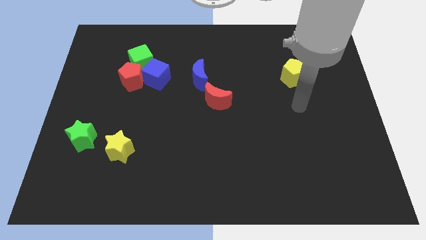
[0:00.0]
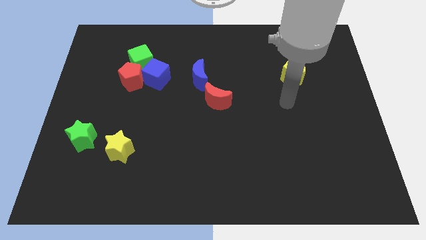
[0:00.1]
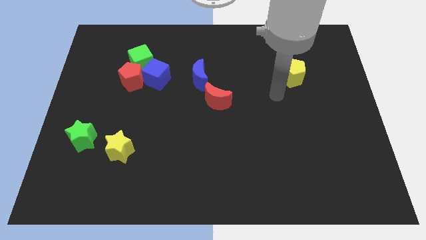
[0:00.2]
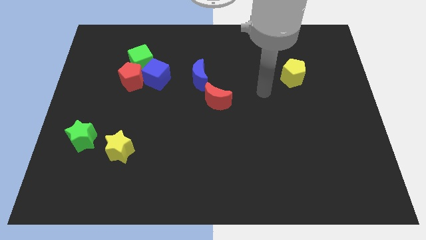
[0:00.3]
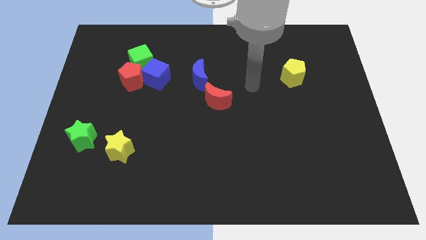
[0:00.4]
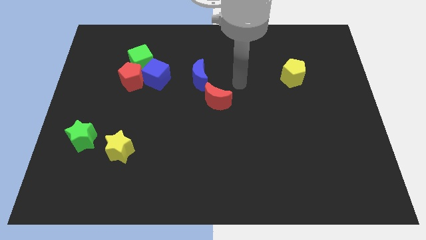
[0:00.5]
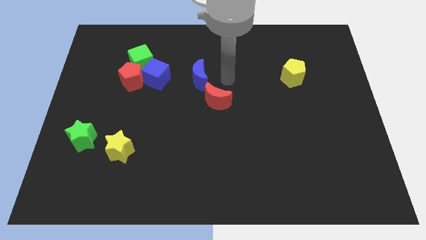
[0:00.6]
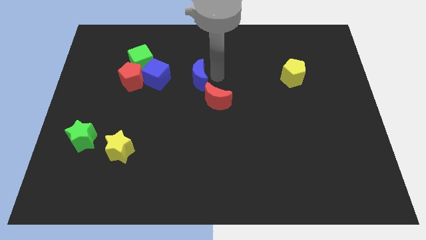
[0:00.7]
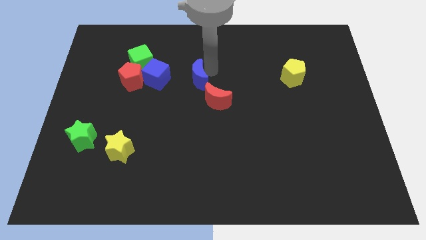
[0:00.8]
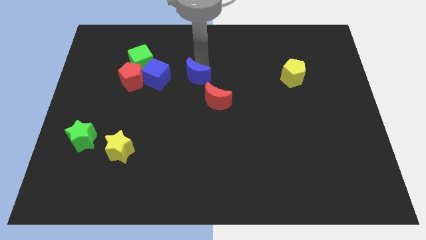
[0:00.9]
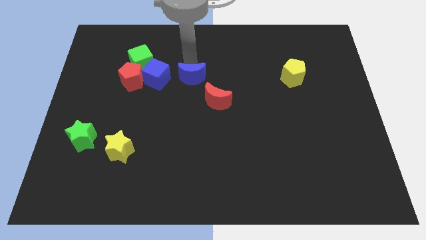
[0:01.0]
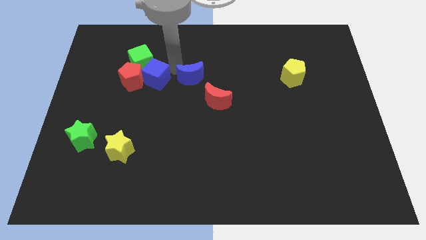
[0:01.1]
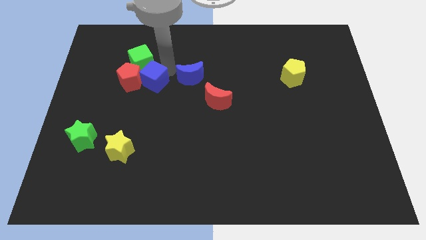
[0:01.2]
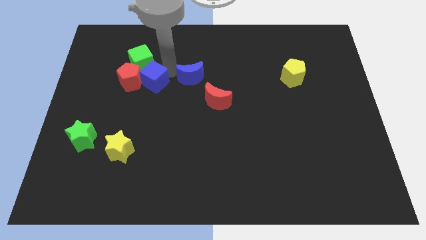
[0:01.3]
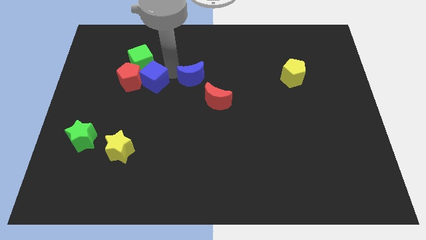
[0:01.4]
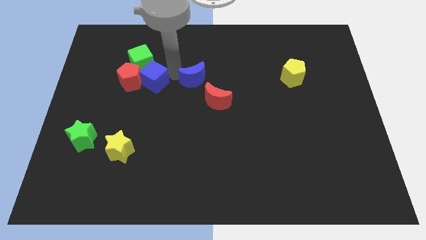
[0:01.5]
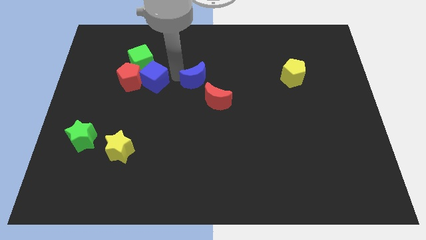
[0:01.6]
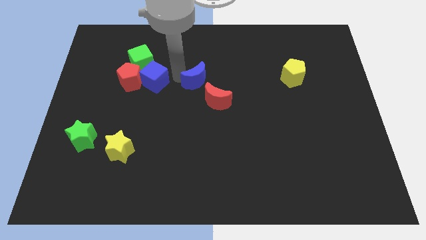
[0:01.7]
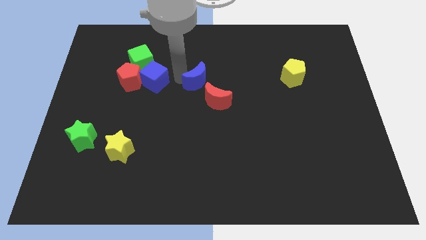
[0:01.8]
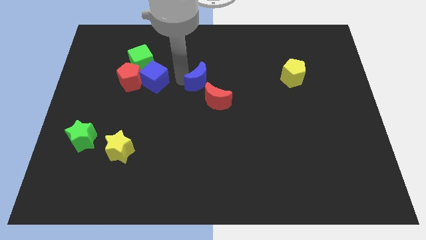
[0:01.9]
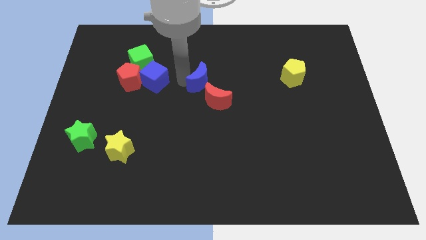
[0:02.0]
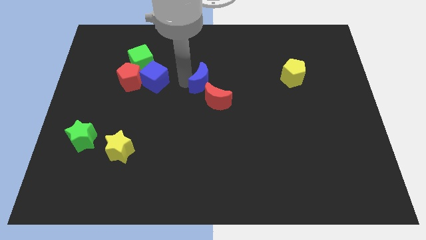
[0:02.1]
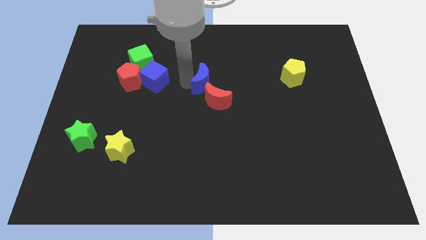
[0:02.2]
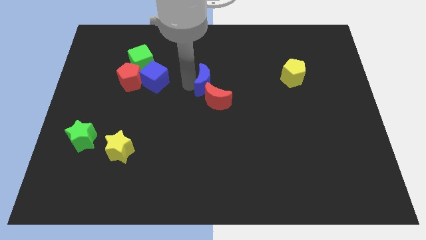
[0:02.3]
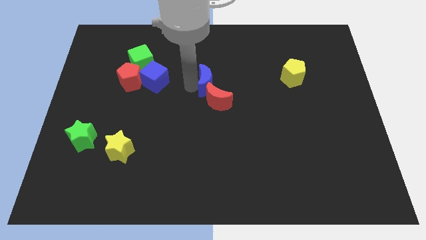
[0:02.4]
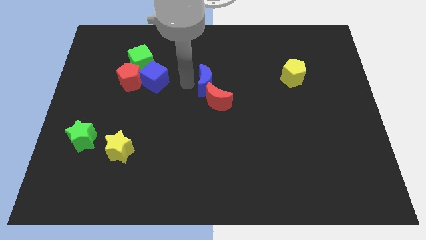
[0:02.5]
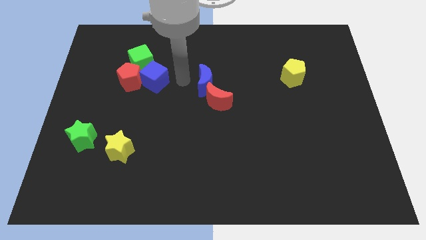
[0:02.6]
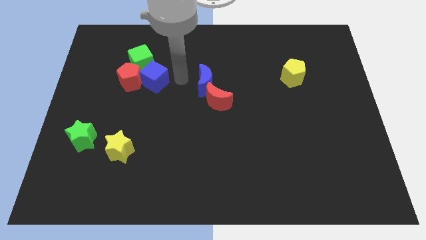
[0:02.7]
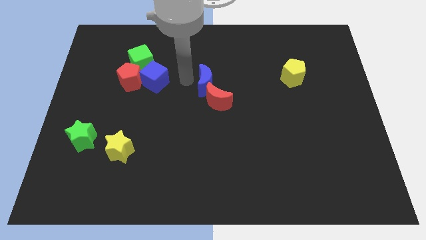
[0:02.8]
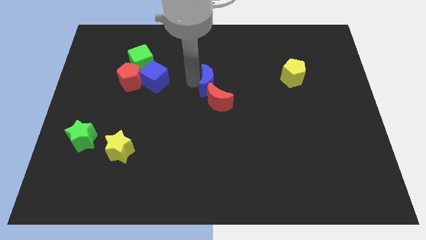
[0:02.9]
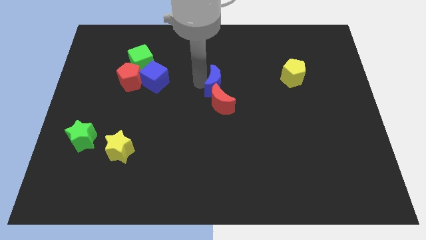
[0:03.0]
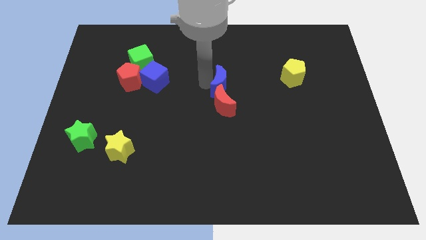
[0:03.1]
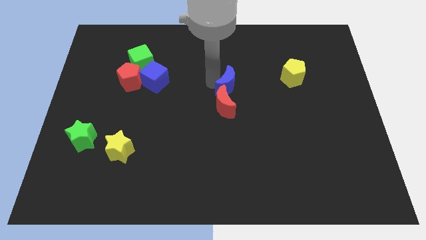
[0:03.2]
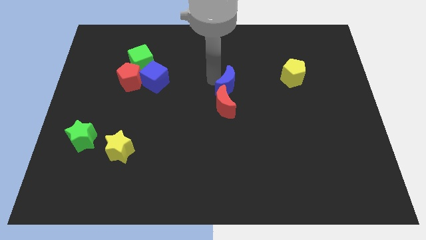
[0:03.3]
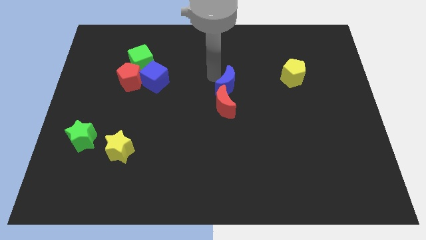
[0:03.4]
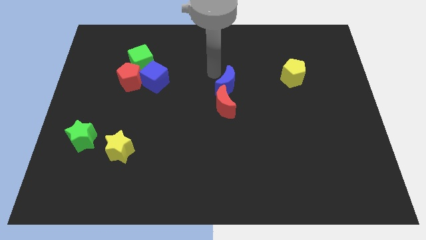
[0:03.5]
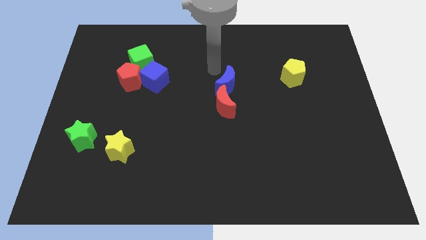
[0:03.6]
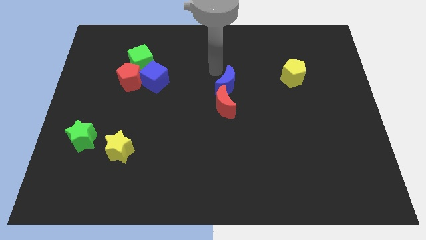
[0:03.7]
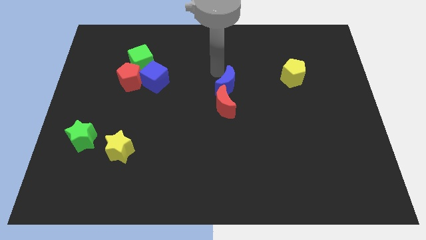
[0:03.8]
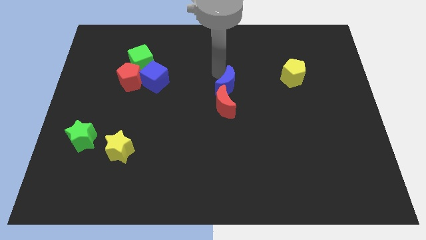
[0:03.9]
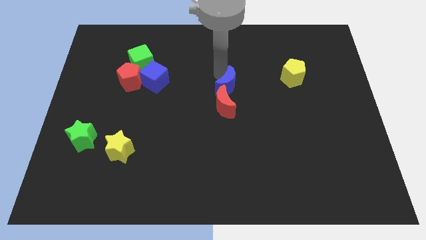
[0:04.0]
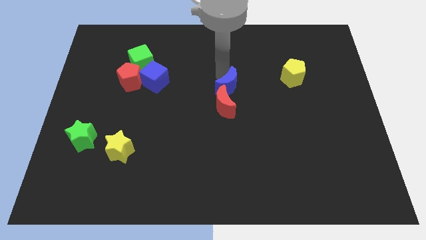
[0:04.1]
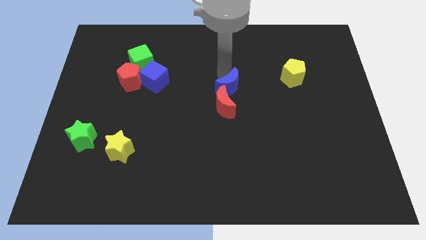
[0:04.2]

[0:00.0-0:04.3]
push the blue moon a little bit downwards and to the right

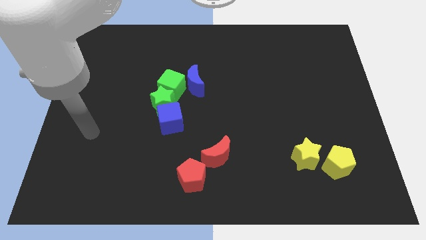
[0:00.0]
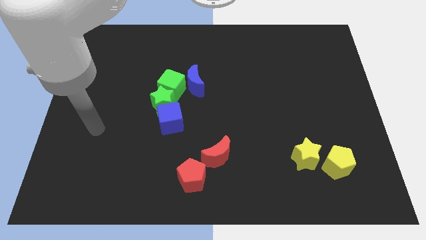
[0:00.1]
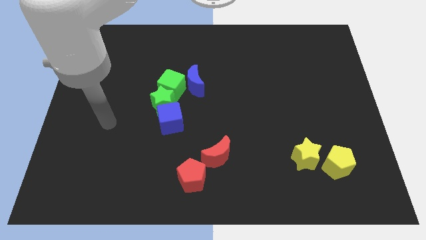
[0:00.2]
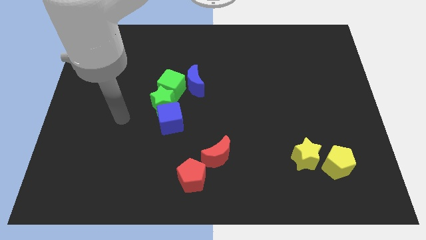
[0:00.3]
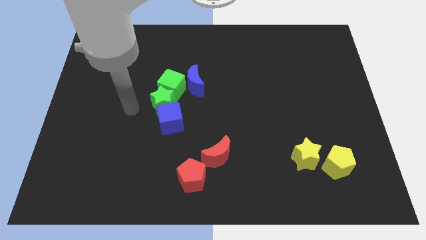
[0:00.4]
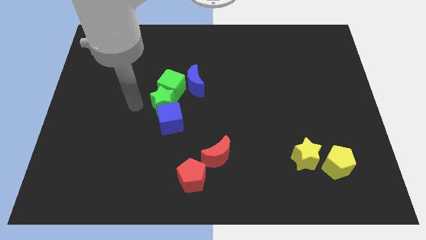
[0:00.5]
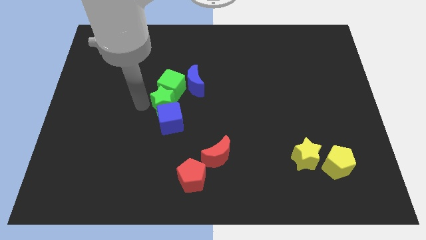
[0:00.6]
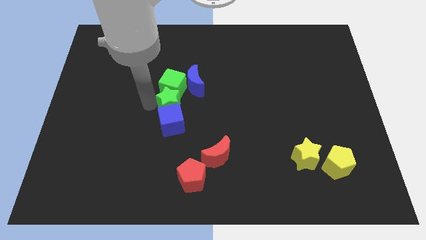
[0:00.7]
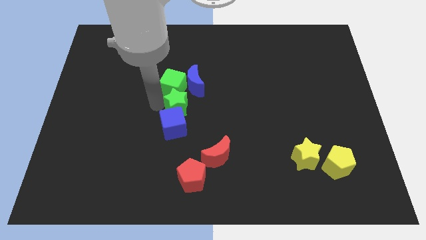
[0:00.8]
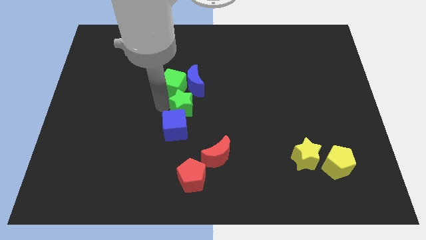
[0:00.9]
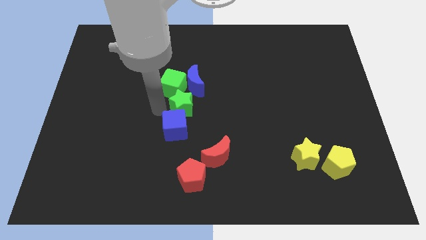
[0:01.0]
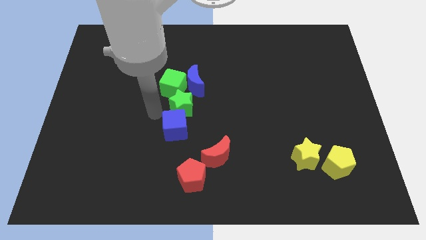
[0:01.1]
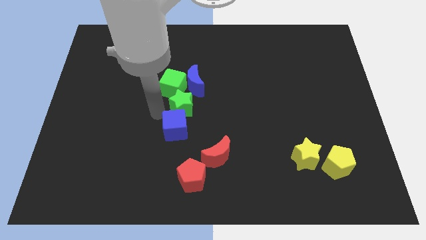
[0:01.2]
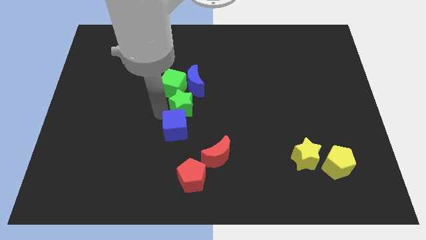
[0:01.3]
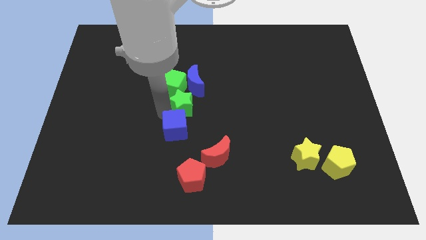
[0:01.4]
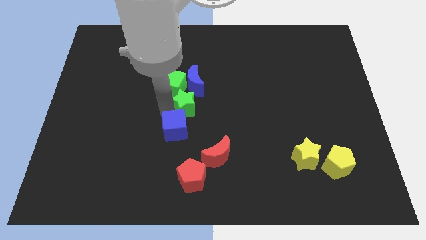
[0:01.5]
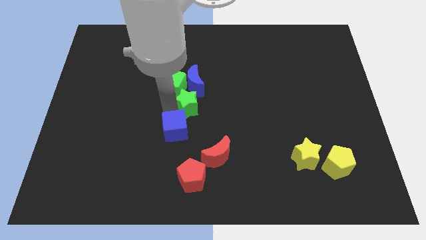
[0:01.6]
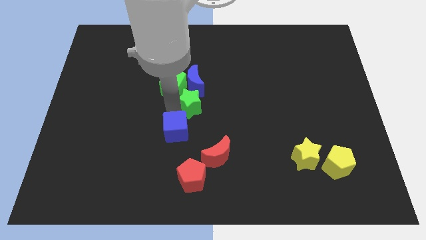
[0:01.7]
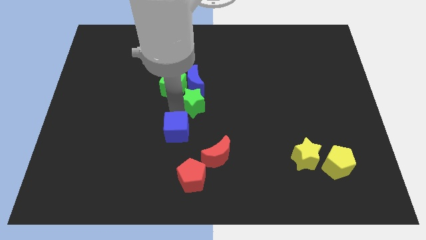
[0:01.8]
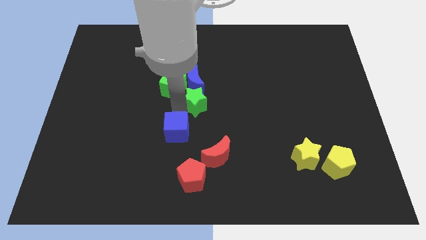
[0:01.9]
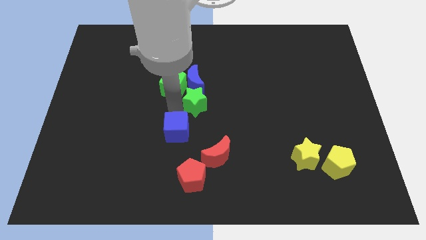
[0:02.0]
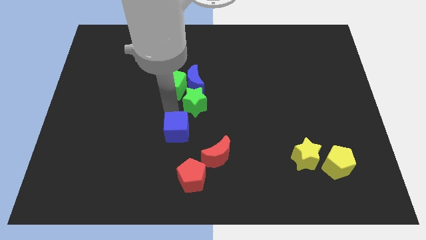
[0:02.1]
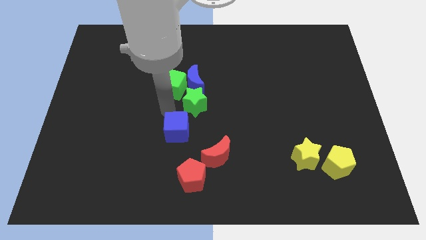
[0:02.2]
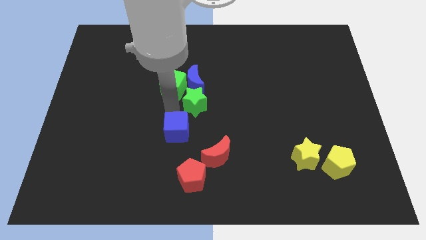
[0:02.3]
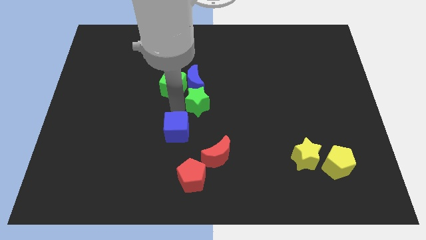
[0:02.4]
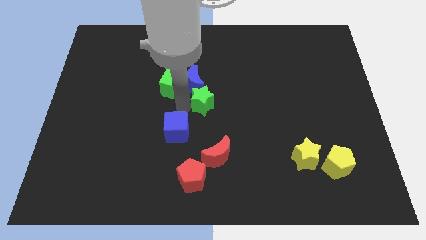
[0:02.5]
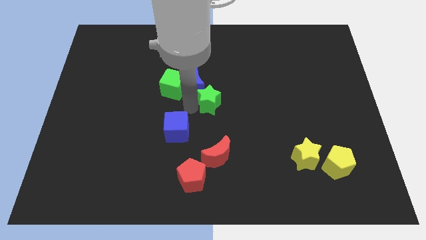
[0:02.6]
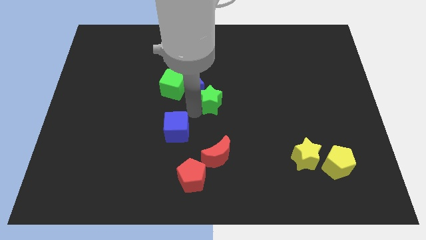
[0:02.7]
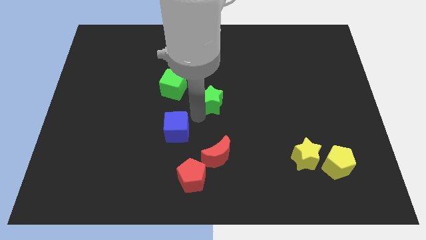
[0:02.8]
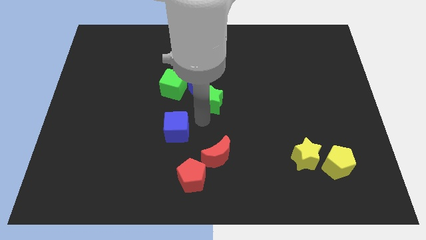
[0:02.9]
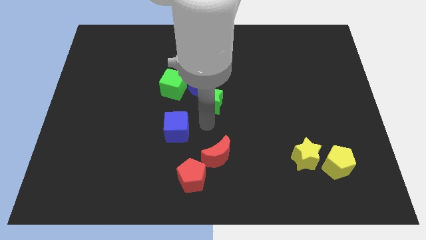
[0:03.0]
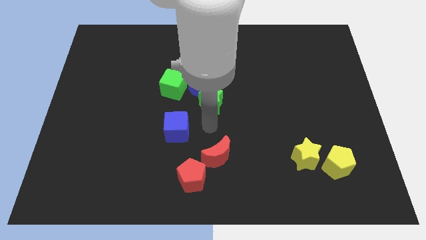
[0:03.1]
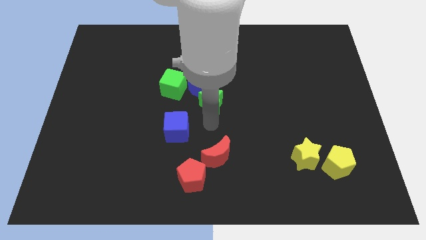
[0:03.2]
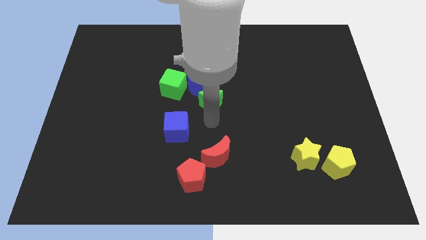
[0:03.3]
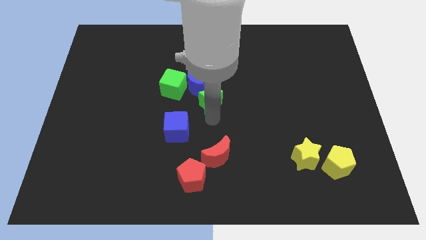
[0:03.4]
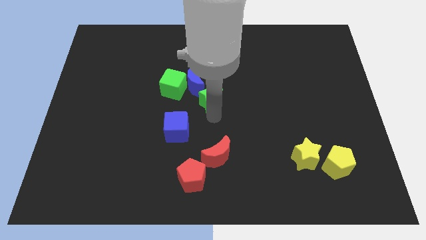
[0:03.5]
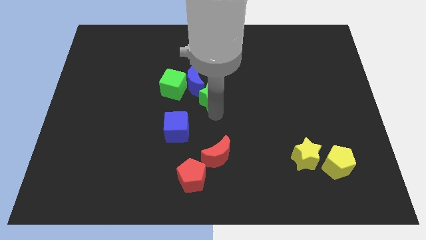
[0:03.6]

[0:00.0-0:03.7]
slightly slide the green star diagonally up and to the right
